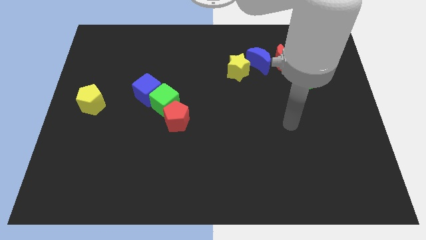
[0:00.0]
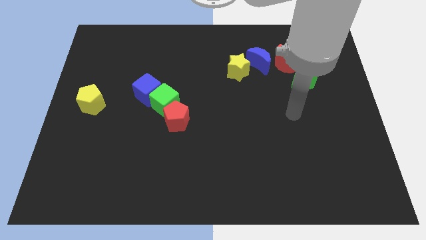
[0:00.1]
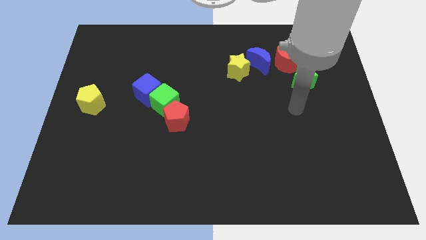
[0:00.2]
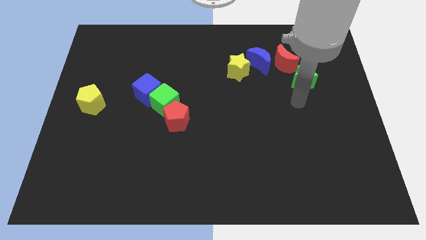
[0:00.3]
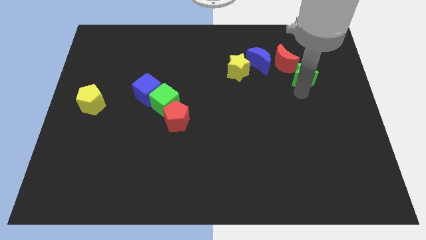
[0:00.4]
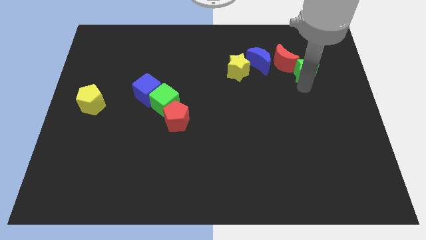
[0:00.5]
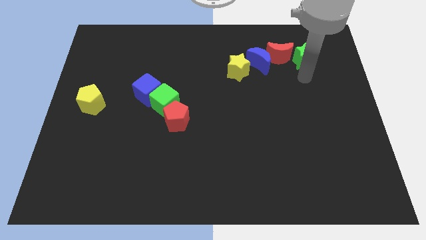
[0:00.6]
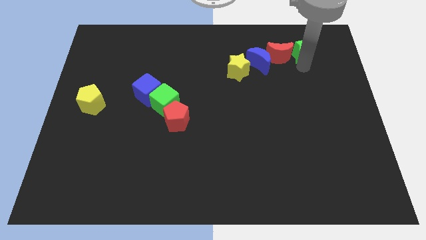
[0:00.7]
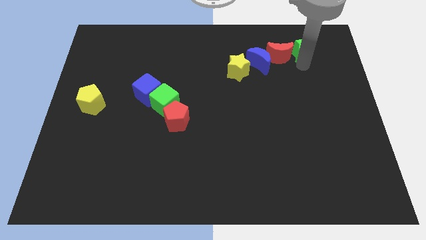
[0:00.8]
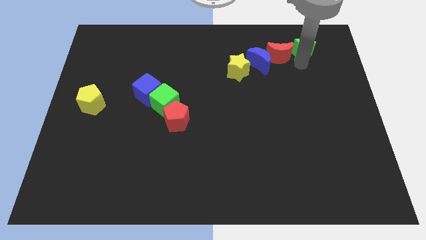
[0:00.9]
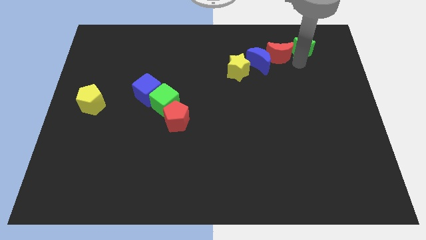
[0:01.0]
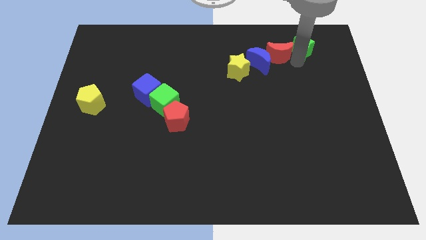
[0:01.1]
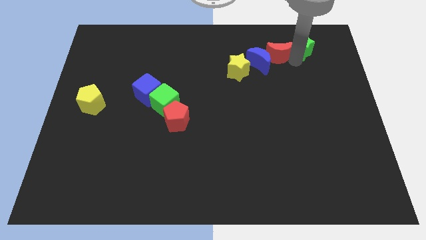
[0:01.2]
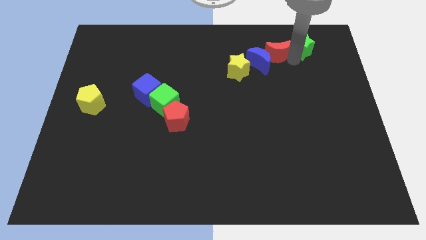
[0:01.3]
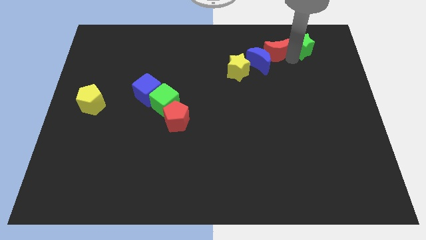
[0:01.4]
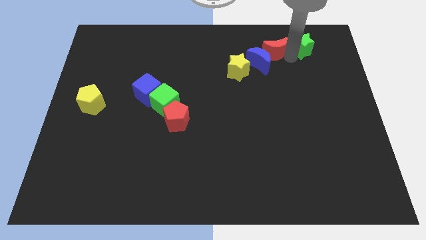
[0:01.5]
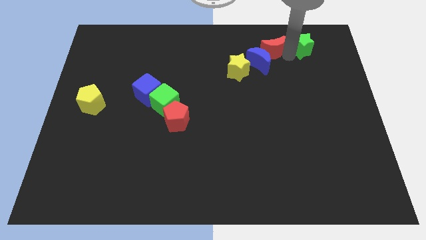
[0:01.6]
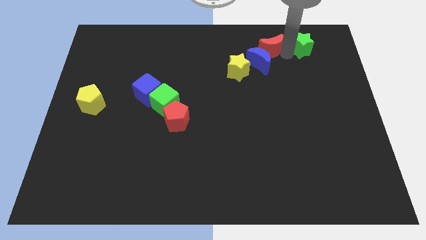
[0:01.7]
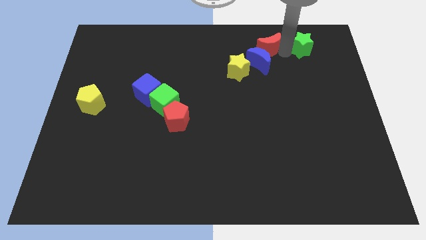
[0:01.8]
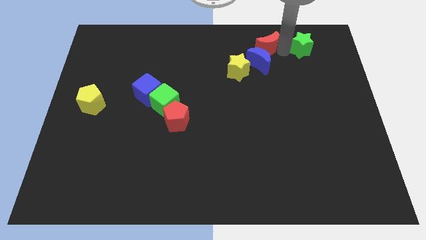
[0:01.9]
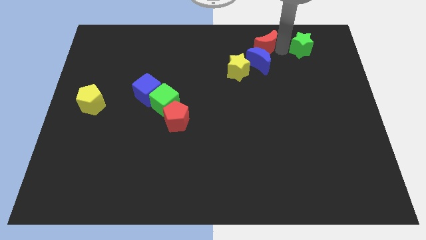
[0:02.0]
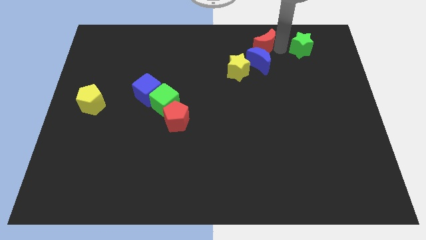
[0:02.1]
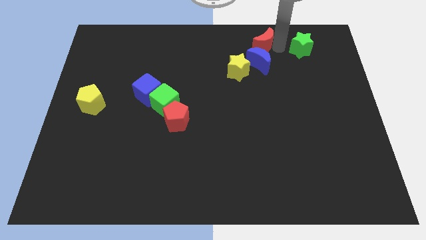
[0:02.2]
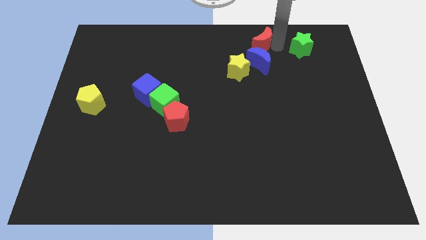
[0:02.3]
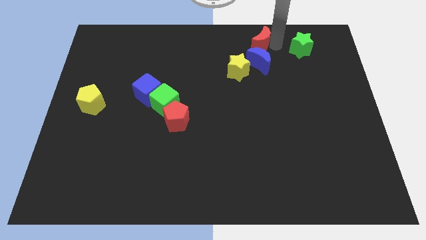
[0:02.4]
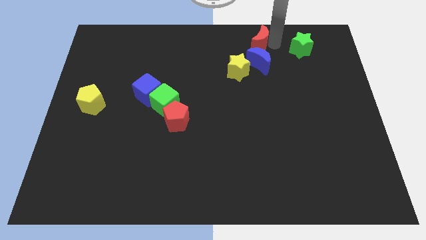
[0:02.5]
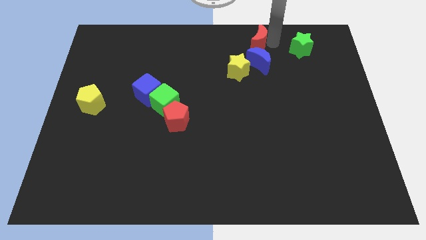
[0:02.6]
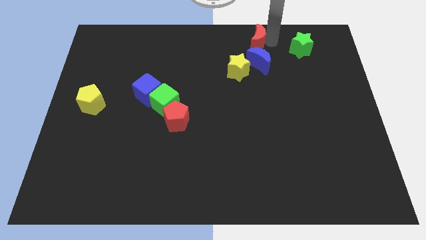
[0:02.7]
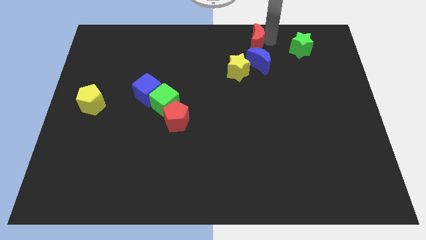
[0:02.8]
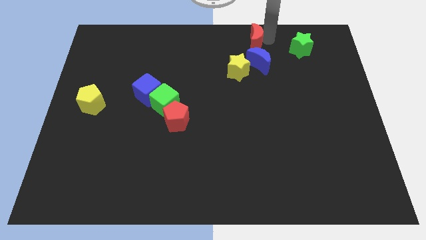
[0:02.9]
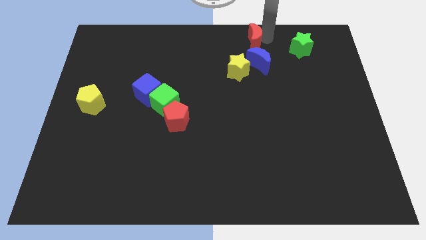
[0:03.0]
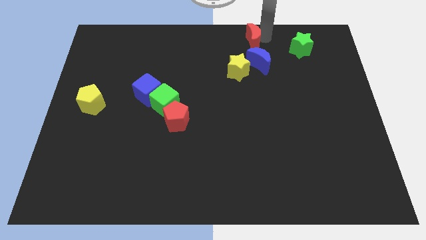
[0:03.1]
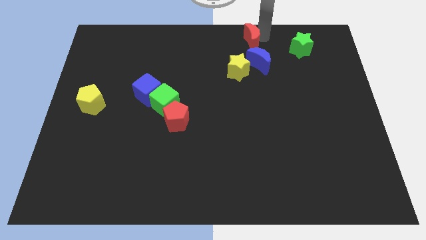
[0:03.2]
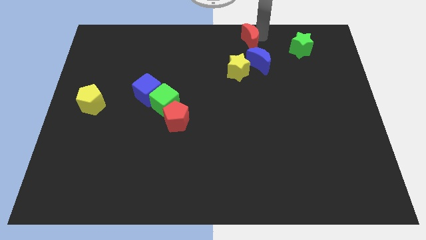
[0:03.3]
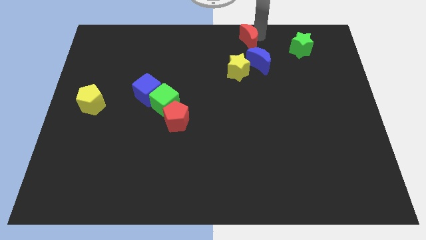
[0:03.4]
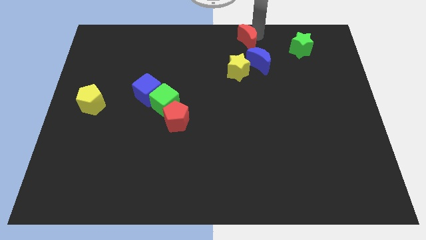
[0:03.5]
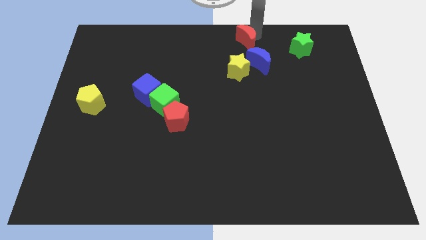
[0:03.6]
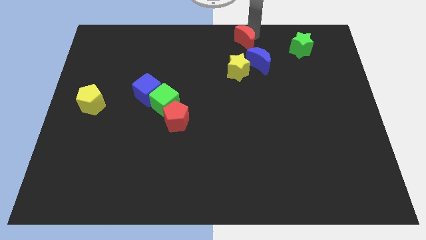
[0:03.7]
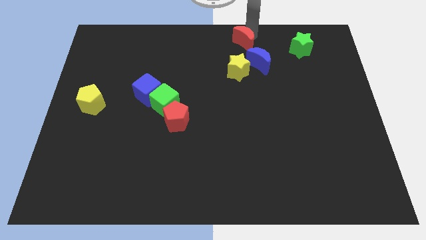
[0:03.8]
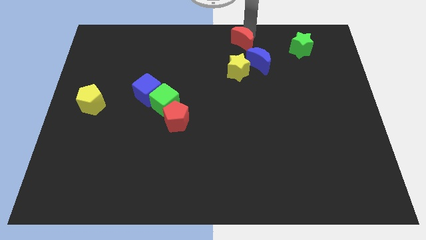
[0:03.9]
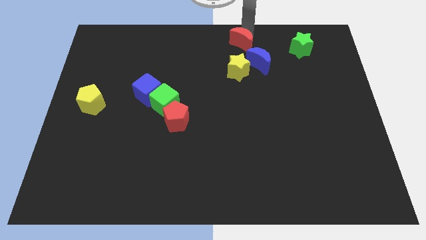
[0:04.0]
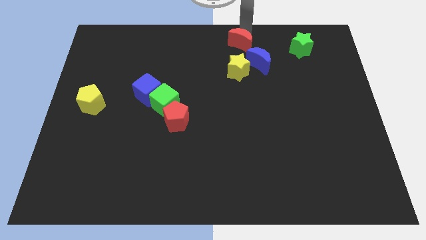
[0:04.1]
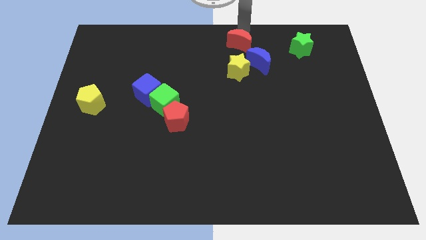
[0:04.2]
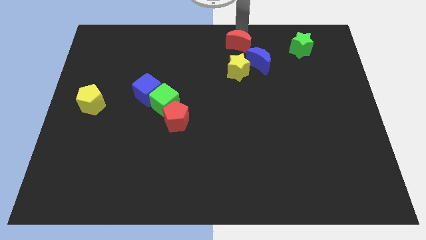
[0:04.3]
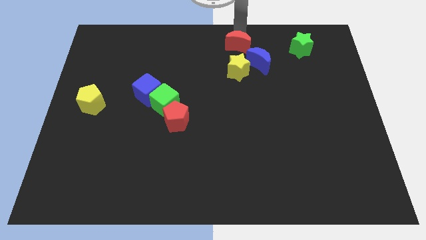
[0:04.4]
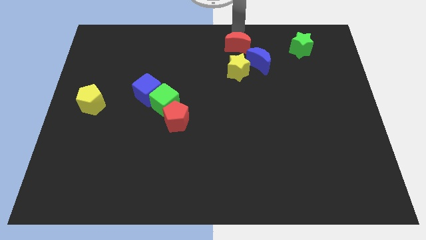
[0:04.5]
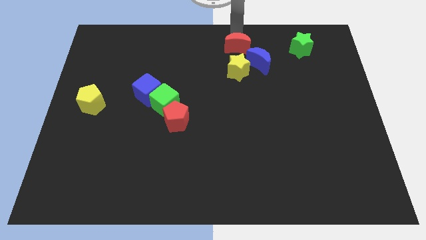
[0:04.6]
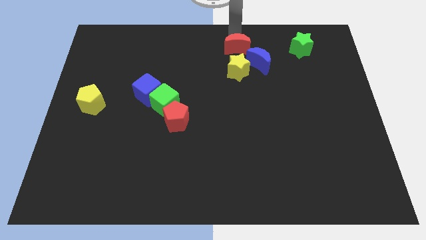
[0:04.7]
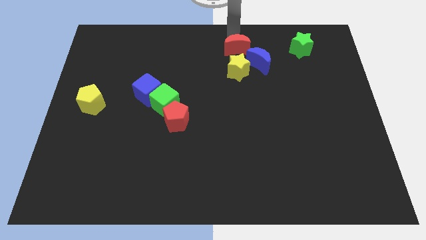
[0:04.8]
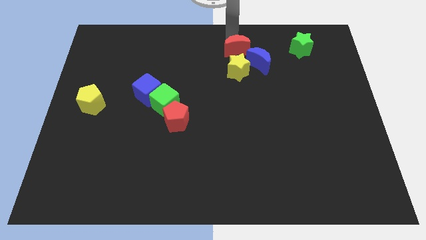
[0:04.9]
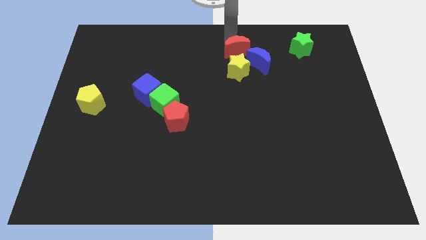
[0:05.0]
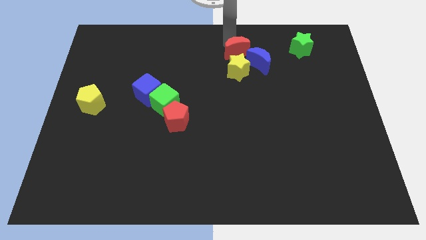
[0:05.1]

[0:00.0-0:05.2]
put the red moon to the top left side of the yellow star

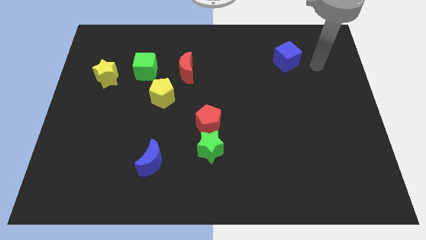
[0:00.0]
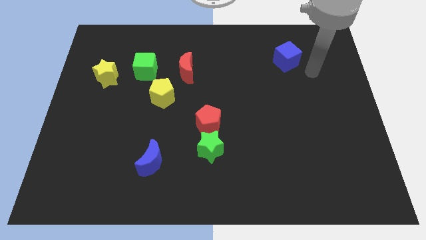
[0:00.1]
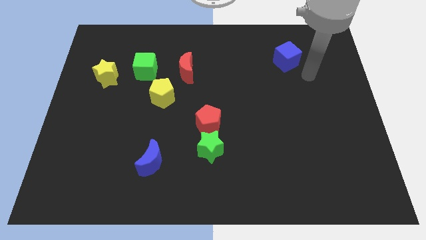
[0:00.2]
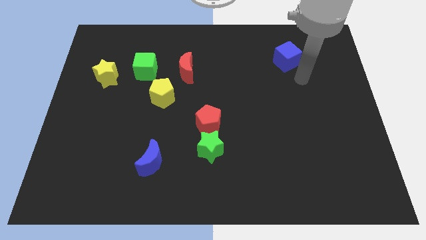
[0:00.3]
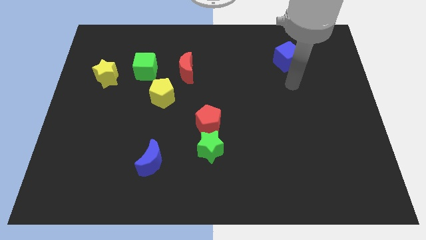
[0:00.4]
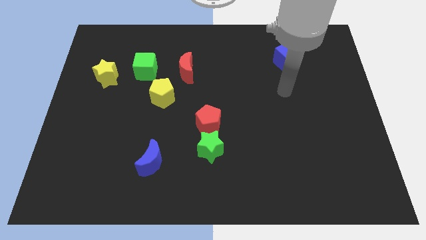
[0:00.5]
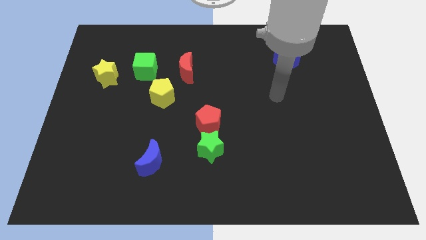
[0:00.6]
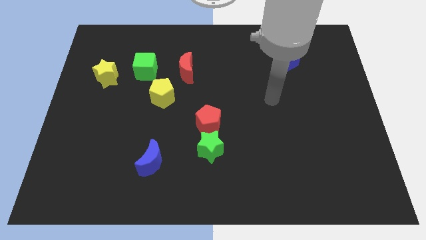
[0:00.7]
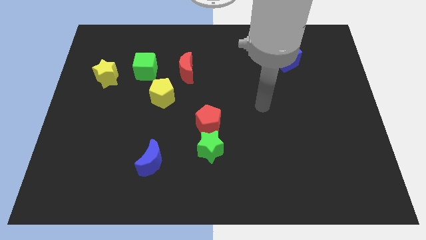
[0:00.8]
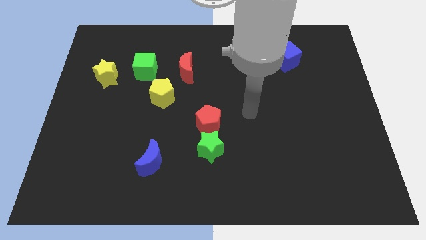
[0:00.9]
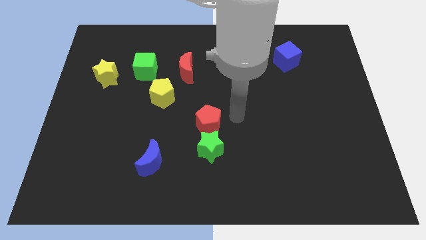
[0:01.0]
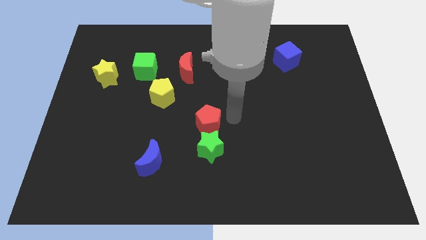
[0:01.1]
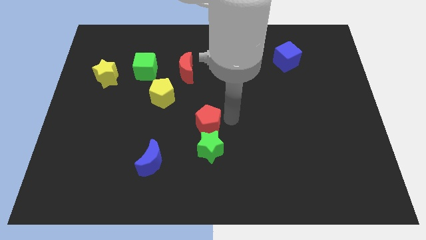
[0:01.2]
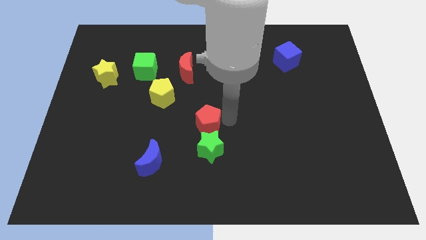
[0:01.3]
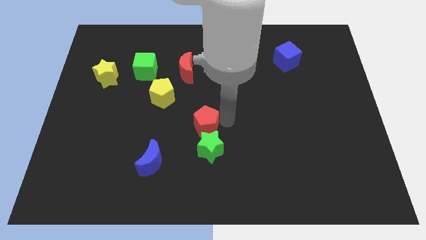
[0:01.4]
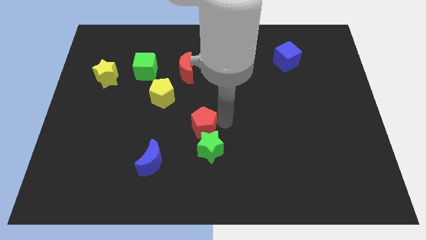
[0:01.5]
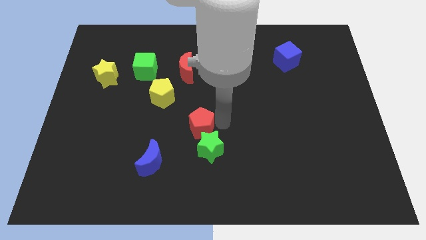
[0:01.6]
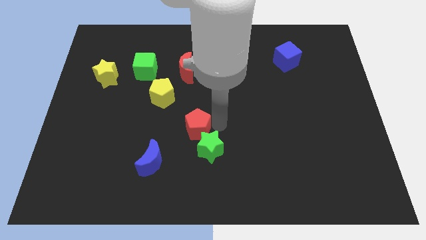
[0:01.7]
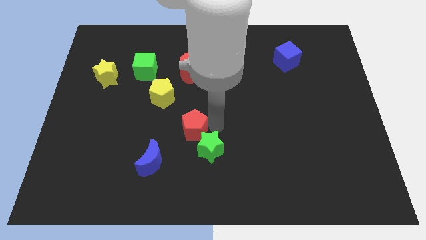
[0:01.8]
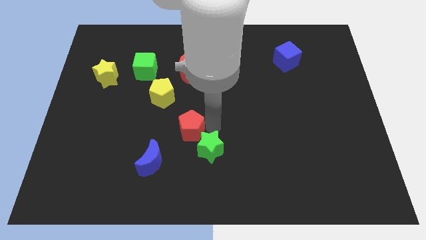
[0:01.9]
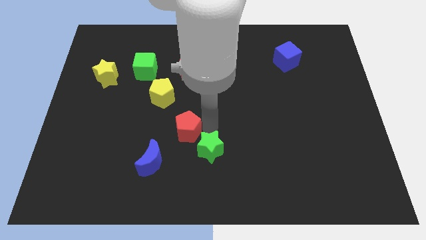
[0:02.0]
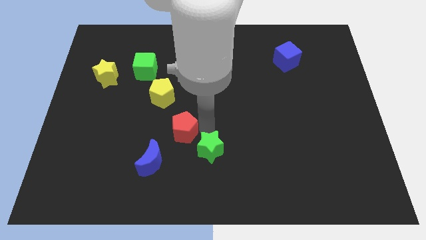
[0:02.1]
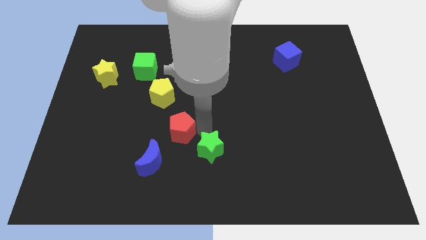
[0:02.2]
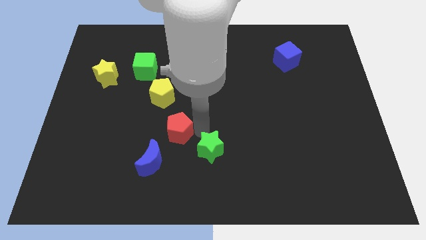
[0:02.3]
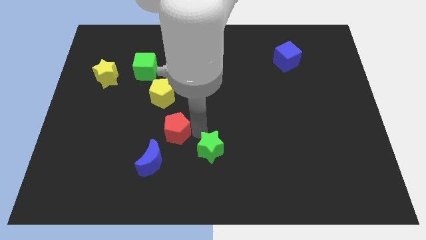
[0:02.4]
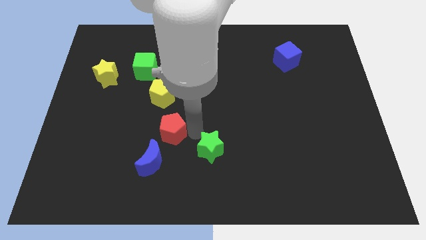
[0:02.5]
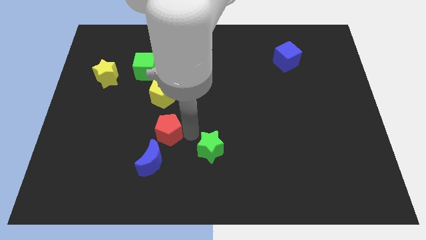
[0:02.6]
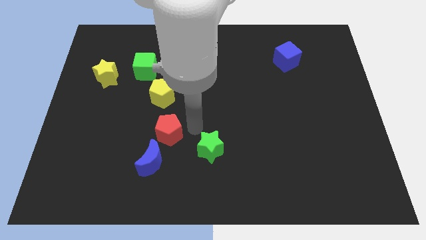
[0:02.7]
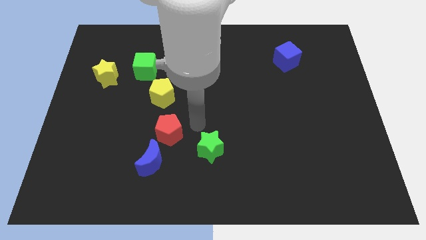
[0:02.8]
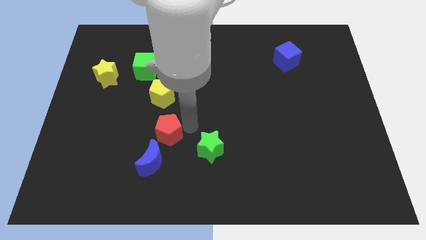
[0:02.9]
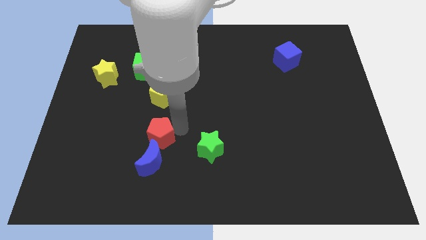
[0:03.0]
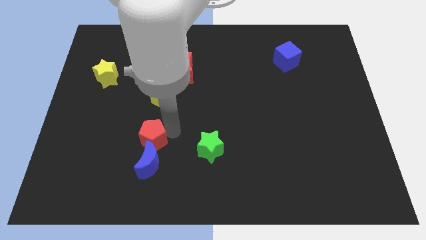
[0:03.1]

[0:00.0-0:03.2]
push the red pentagon to the top left side of the blue moon
